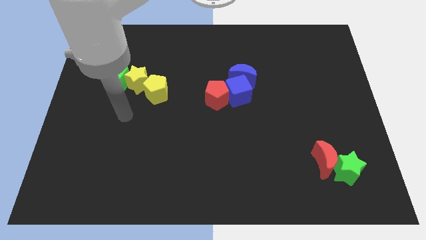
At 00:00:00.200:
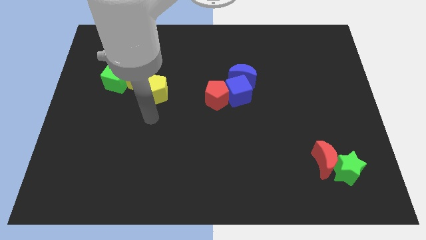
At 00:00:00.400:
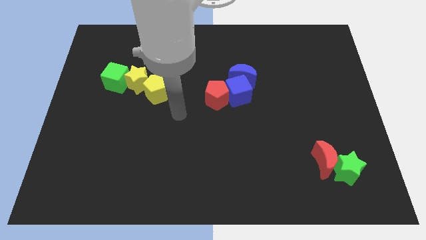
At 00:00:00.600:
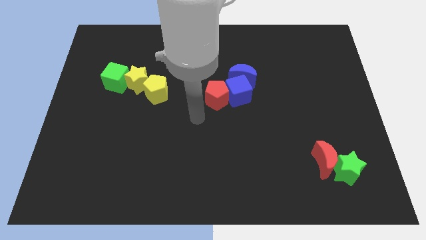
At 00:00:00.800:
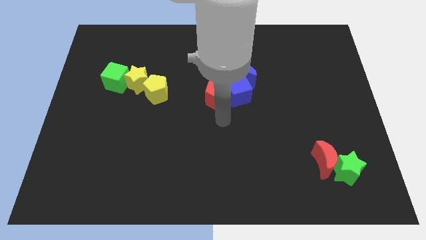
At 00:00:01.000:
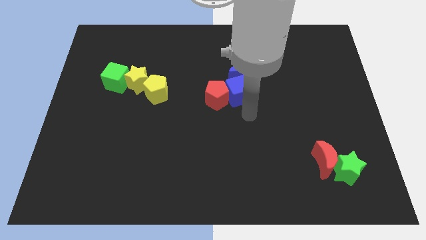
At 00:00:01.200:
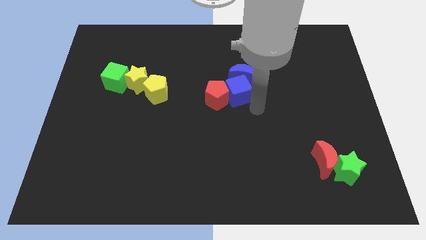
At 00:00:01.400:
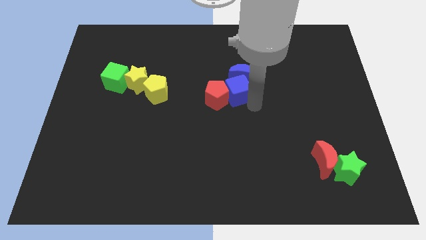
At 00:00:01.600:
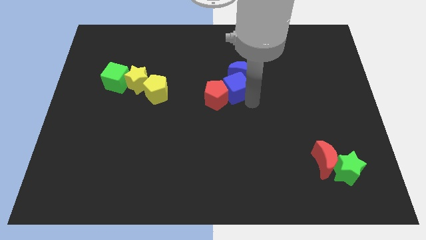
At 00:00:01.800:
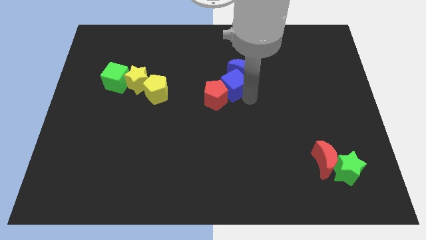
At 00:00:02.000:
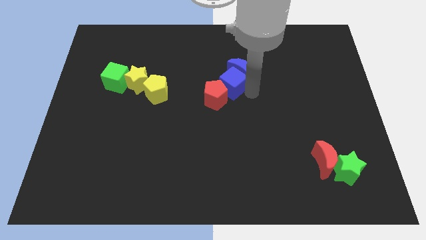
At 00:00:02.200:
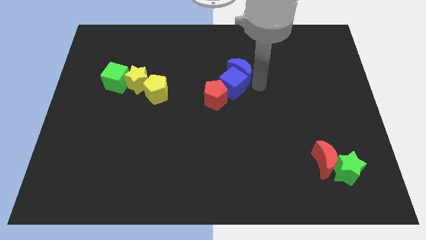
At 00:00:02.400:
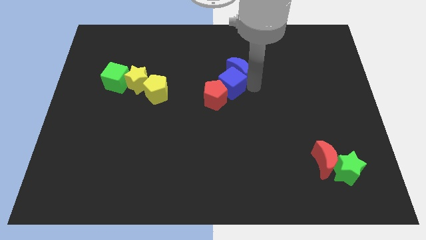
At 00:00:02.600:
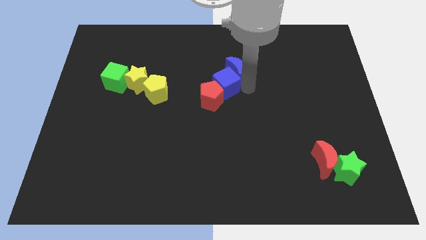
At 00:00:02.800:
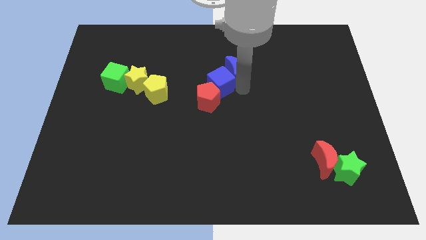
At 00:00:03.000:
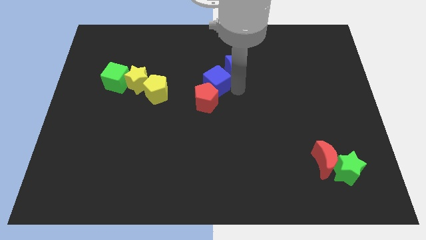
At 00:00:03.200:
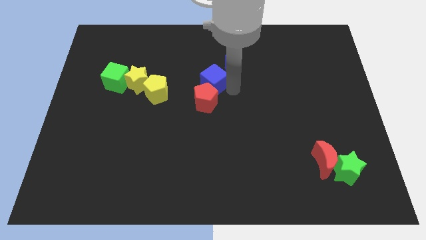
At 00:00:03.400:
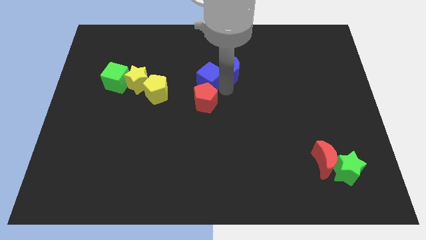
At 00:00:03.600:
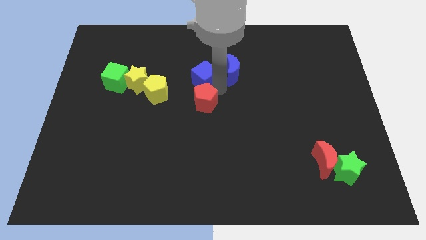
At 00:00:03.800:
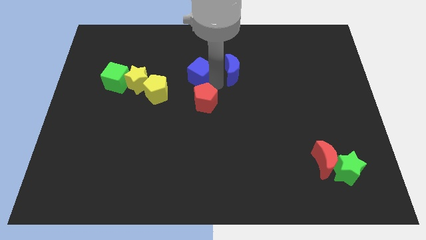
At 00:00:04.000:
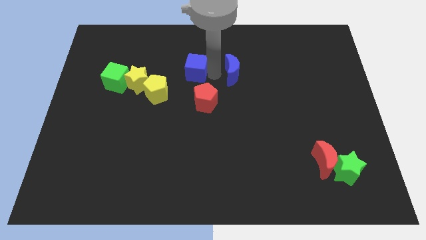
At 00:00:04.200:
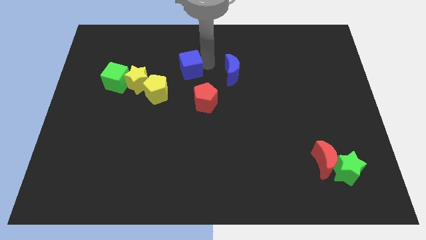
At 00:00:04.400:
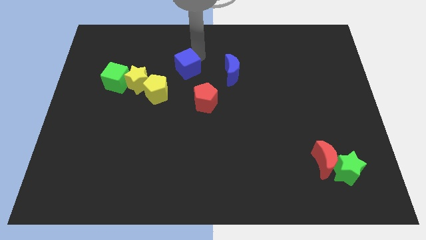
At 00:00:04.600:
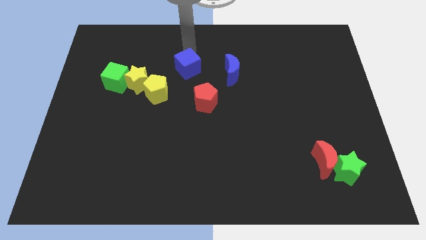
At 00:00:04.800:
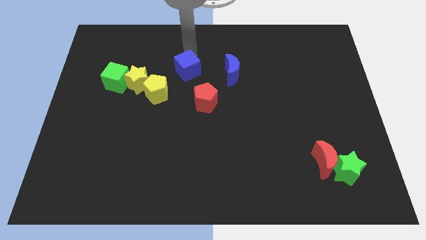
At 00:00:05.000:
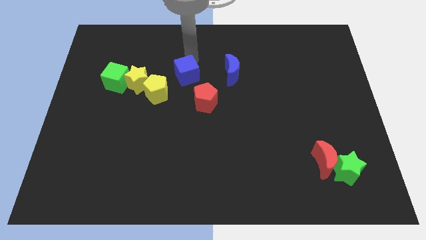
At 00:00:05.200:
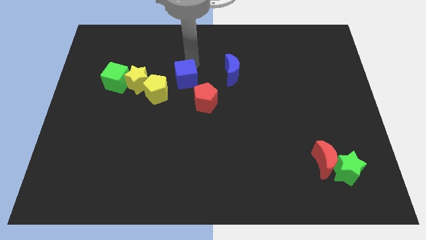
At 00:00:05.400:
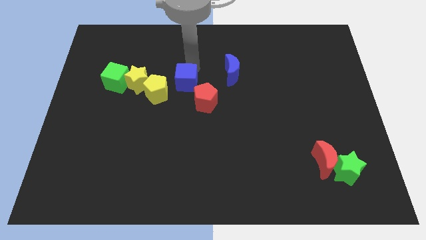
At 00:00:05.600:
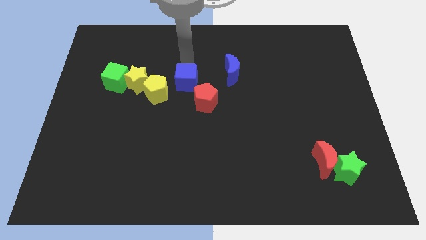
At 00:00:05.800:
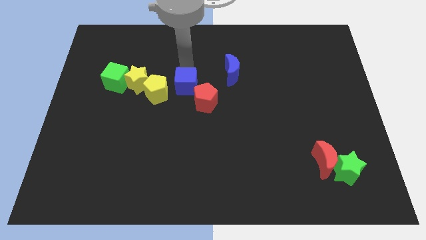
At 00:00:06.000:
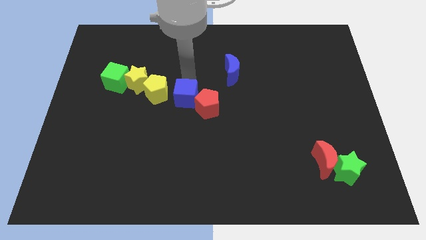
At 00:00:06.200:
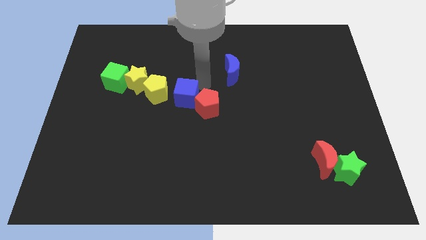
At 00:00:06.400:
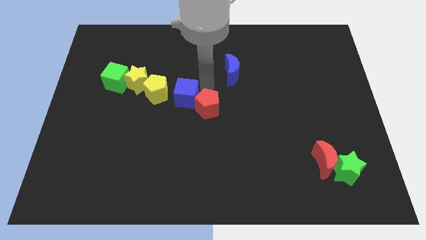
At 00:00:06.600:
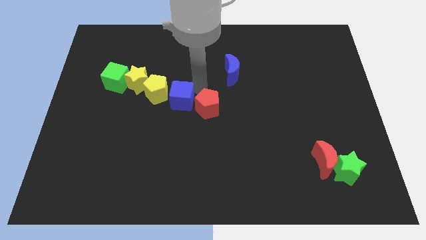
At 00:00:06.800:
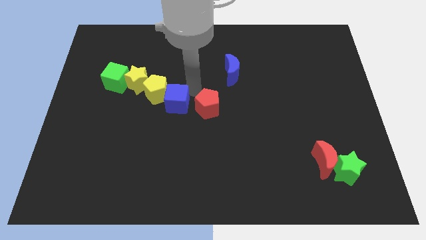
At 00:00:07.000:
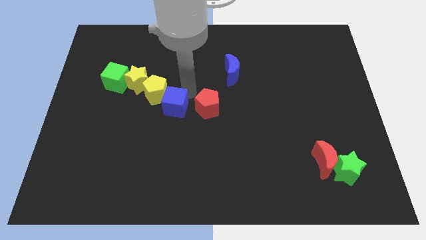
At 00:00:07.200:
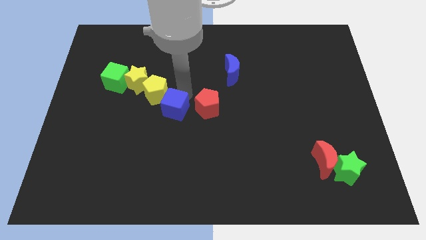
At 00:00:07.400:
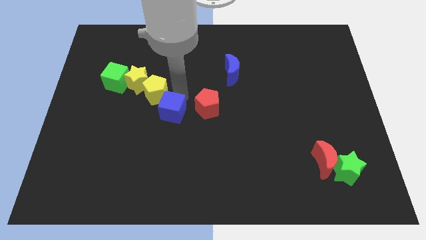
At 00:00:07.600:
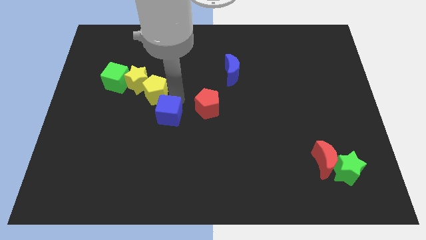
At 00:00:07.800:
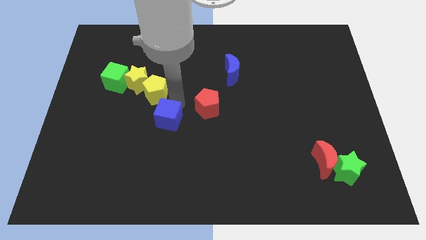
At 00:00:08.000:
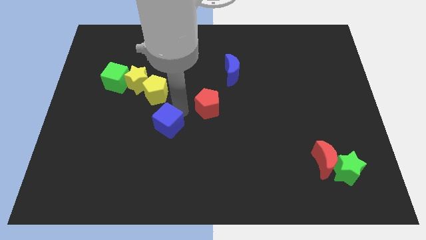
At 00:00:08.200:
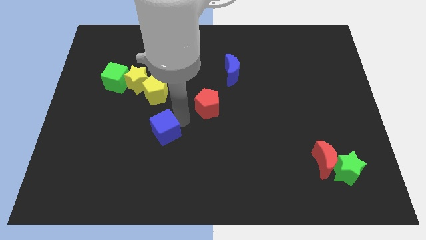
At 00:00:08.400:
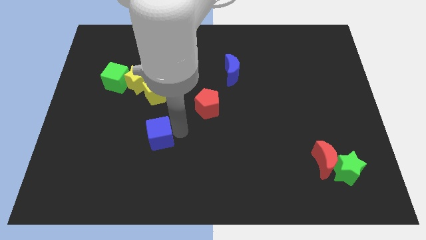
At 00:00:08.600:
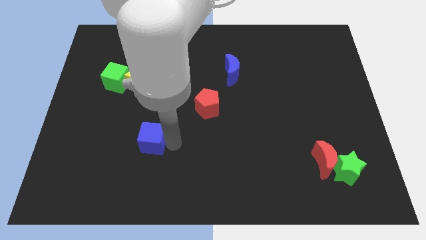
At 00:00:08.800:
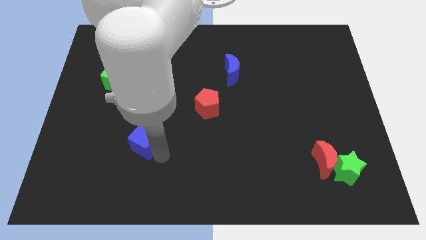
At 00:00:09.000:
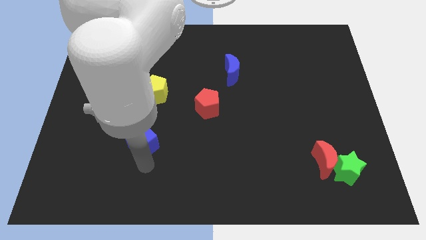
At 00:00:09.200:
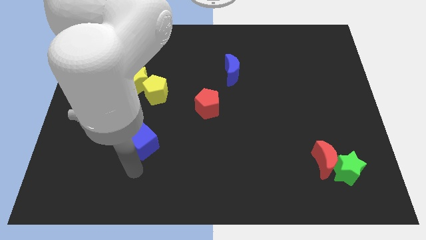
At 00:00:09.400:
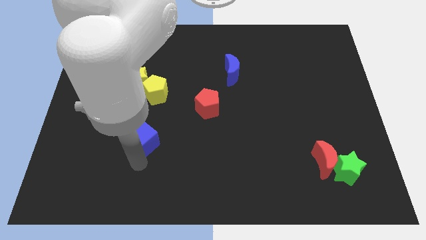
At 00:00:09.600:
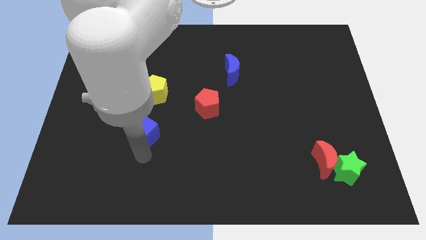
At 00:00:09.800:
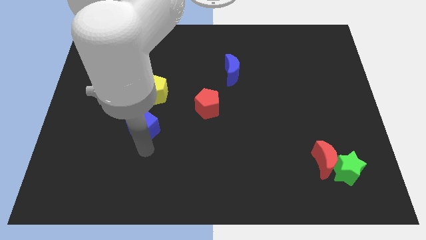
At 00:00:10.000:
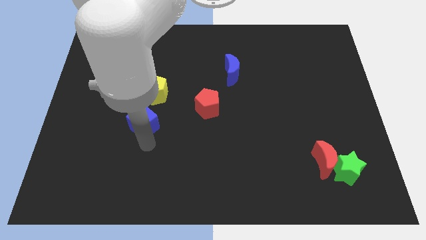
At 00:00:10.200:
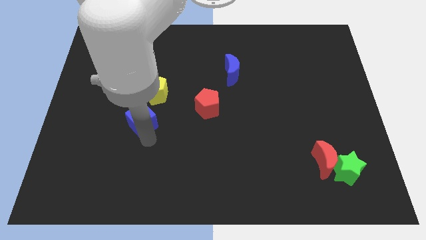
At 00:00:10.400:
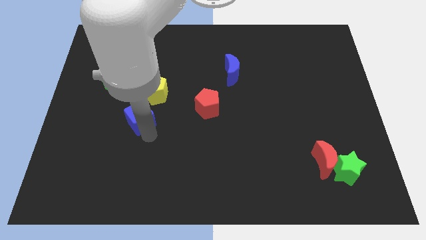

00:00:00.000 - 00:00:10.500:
move the blue cube left

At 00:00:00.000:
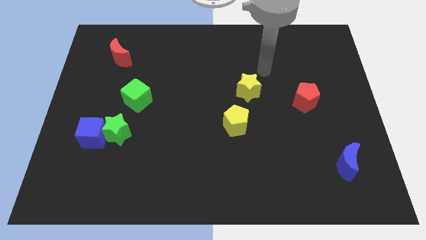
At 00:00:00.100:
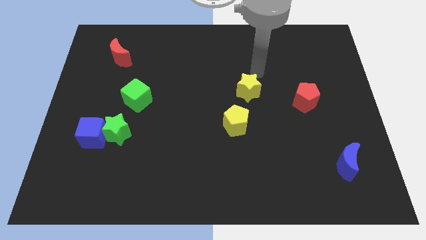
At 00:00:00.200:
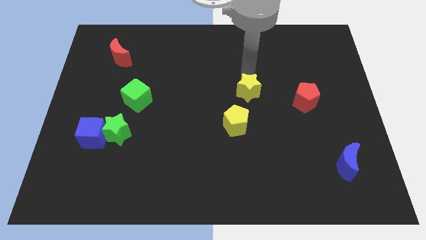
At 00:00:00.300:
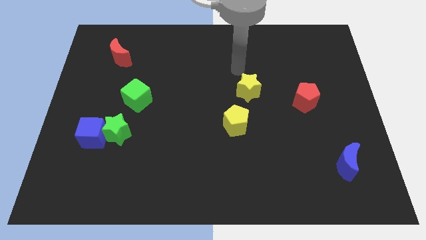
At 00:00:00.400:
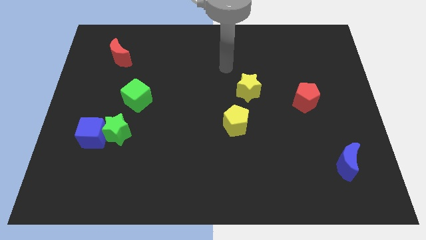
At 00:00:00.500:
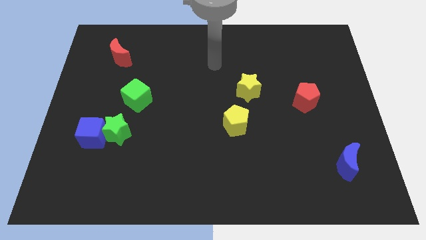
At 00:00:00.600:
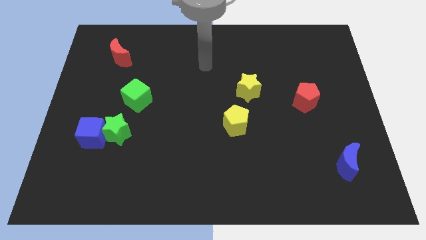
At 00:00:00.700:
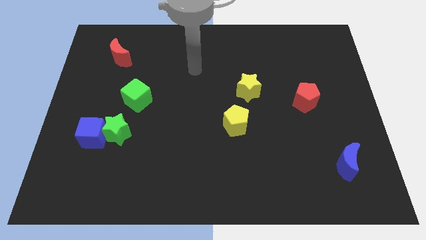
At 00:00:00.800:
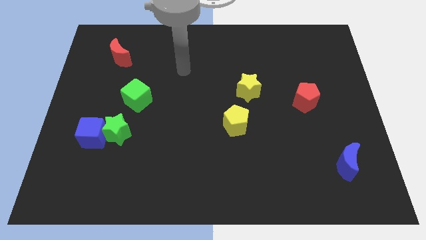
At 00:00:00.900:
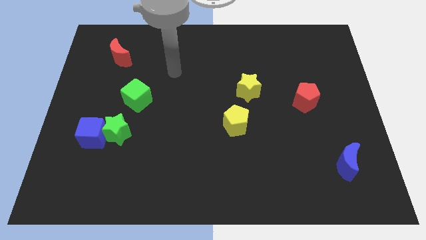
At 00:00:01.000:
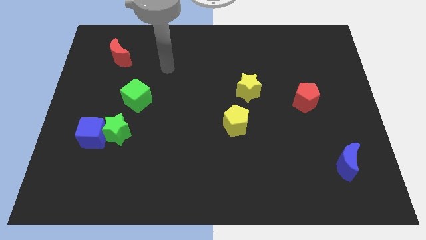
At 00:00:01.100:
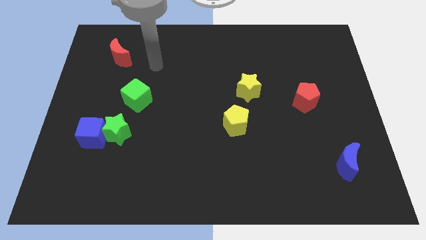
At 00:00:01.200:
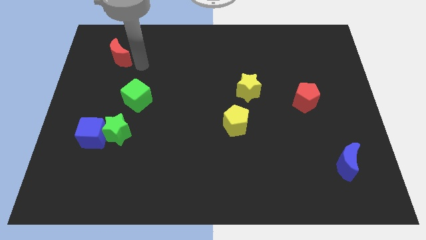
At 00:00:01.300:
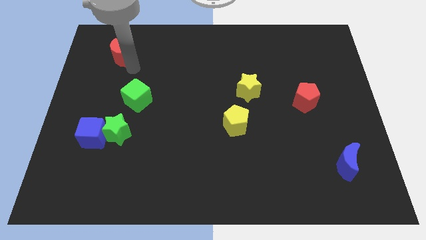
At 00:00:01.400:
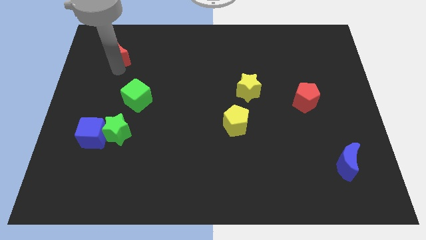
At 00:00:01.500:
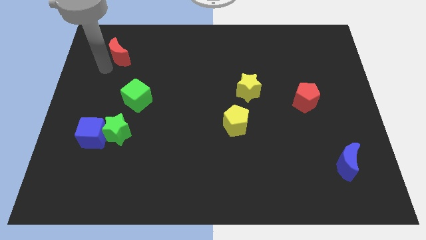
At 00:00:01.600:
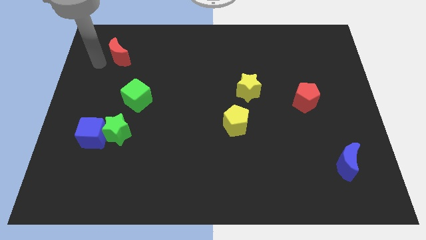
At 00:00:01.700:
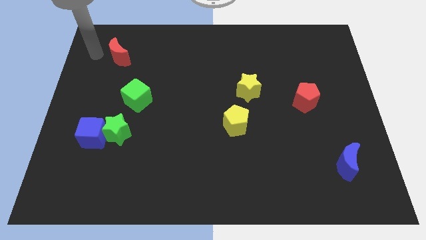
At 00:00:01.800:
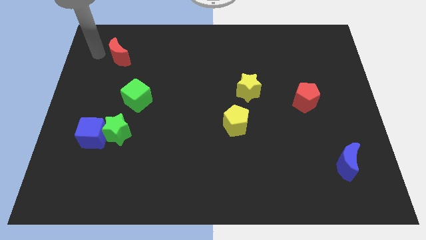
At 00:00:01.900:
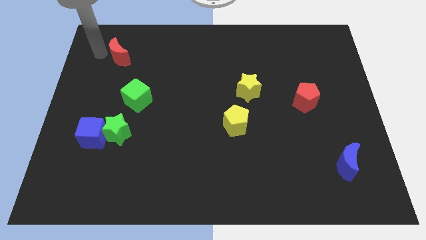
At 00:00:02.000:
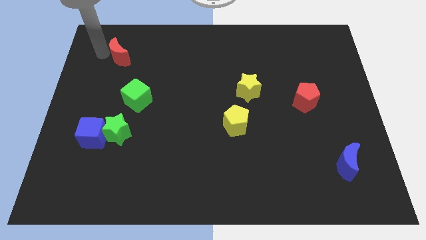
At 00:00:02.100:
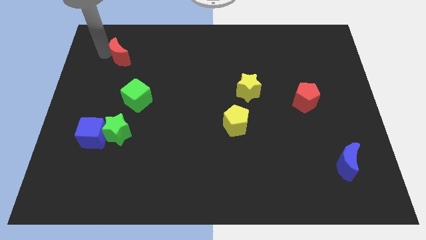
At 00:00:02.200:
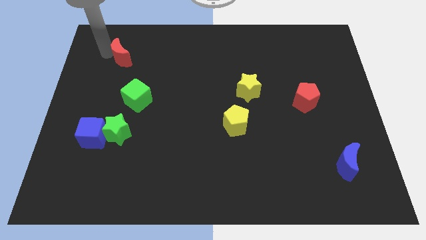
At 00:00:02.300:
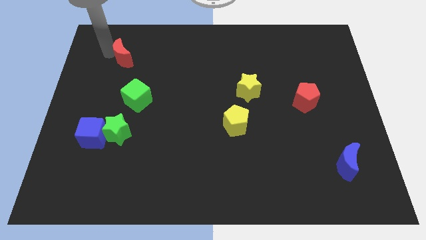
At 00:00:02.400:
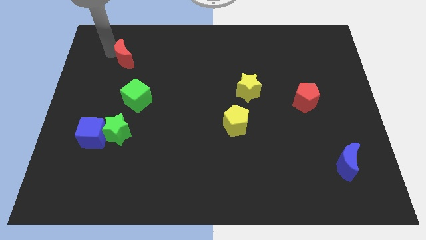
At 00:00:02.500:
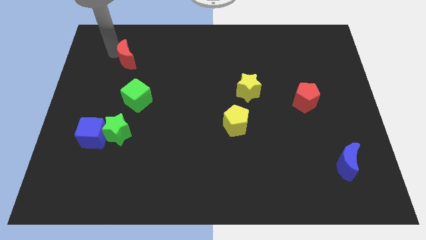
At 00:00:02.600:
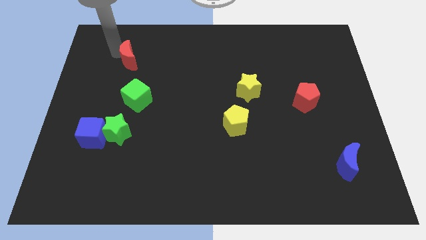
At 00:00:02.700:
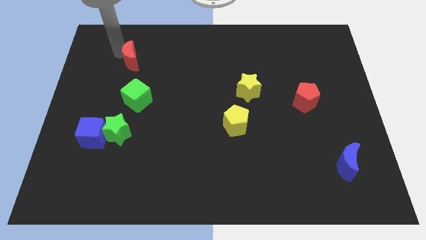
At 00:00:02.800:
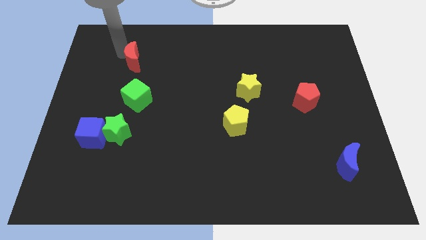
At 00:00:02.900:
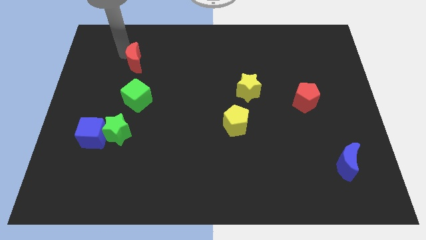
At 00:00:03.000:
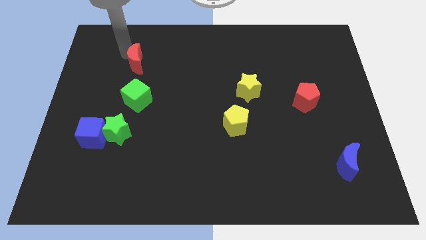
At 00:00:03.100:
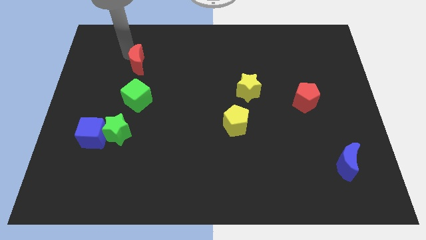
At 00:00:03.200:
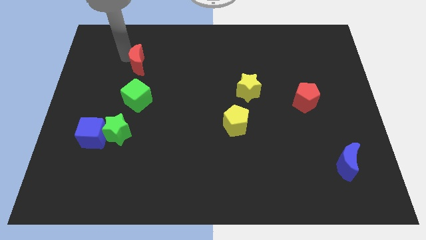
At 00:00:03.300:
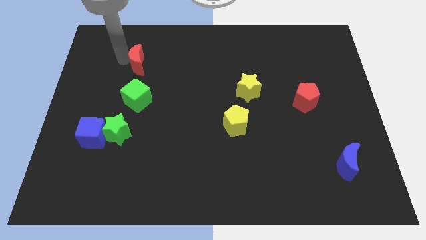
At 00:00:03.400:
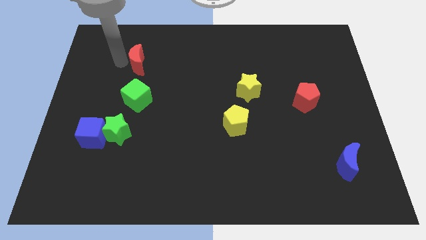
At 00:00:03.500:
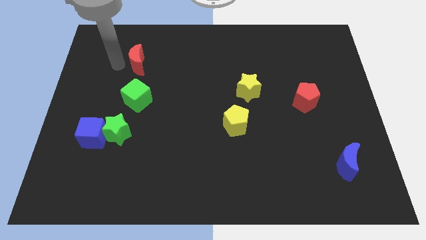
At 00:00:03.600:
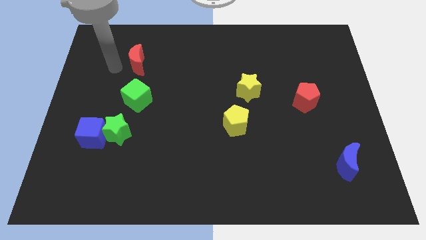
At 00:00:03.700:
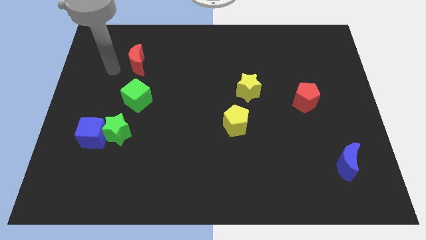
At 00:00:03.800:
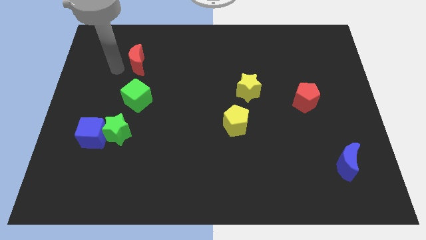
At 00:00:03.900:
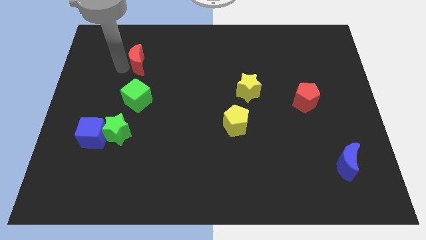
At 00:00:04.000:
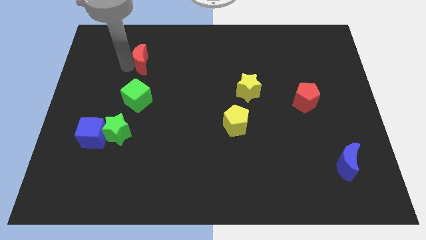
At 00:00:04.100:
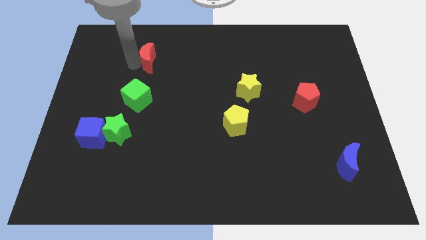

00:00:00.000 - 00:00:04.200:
slightly push the red moon right
